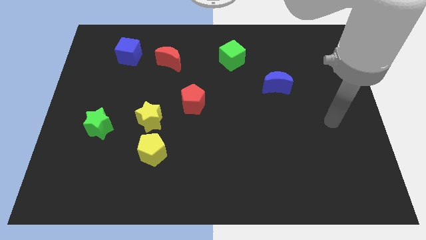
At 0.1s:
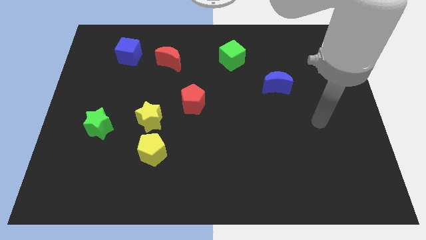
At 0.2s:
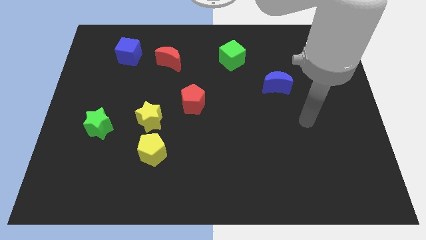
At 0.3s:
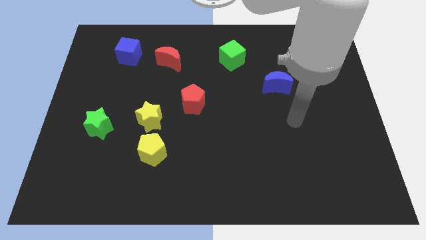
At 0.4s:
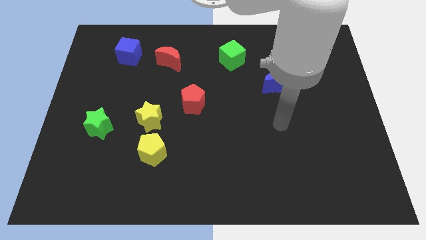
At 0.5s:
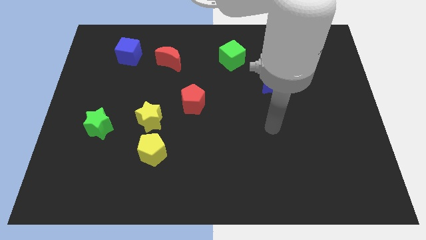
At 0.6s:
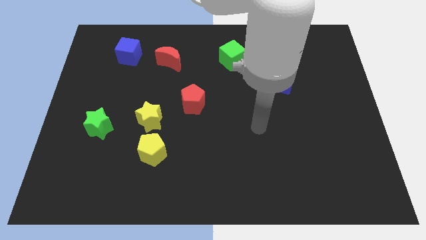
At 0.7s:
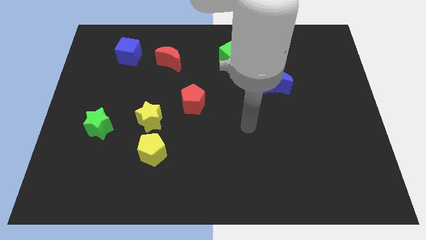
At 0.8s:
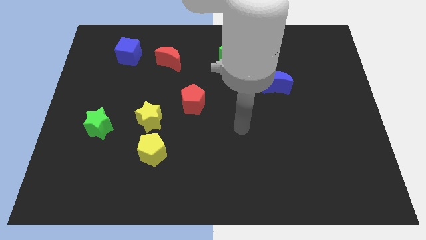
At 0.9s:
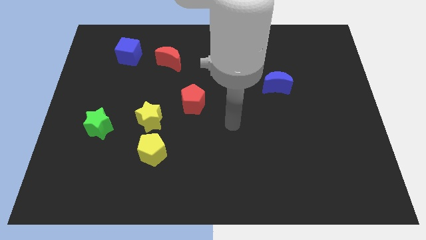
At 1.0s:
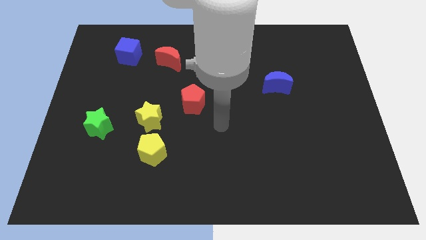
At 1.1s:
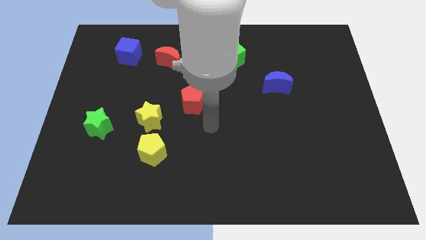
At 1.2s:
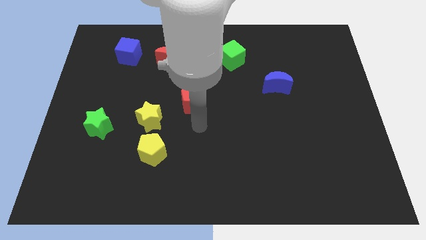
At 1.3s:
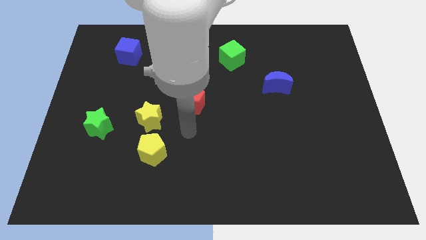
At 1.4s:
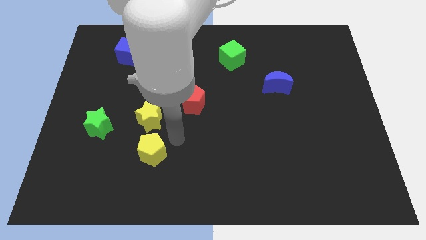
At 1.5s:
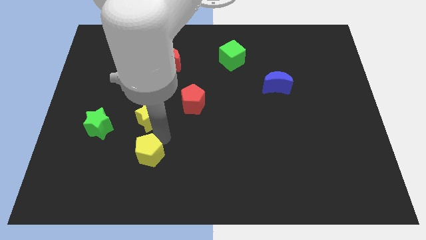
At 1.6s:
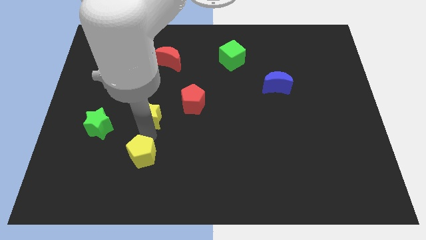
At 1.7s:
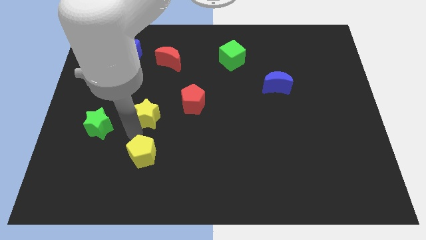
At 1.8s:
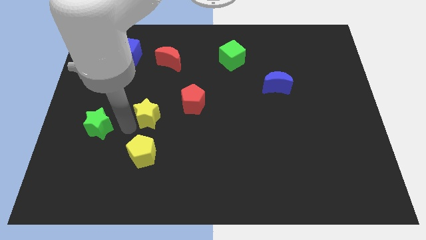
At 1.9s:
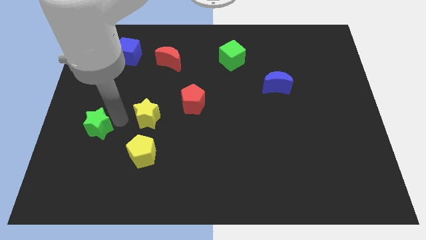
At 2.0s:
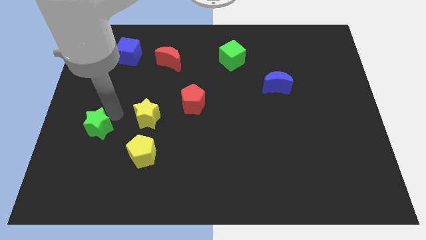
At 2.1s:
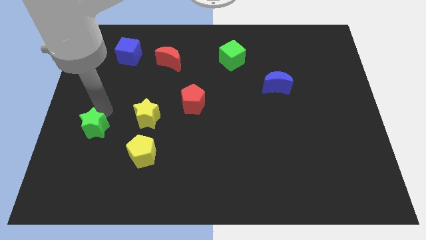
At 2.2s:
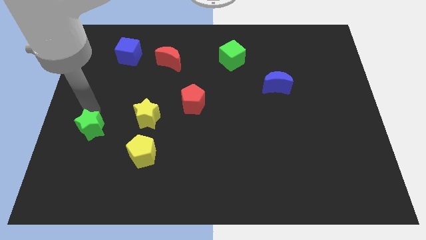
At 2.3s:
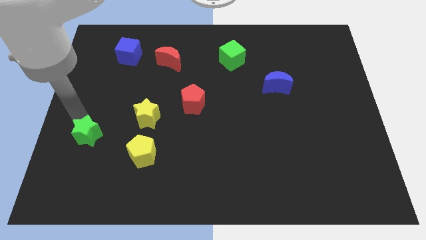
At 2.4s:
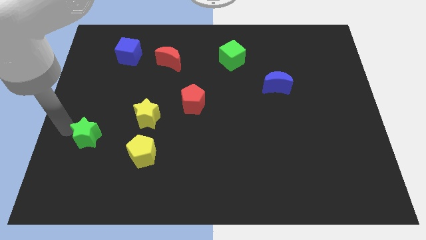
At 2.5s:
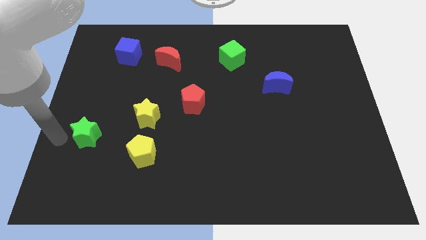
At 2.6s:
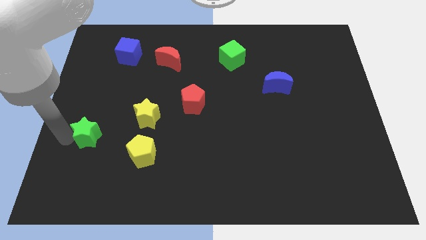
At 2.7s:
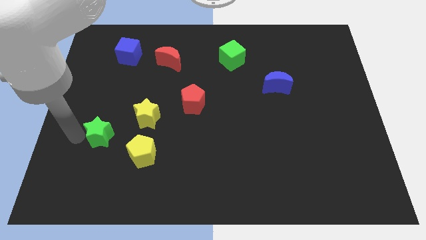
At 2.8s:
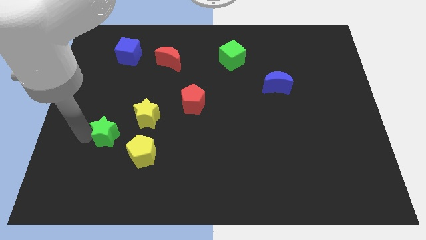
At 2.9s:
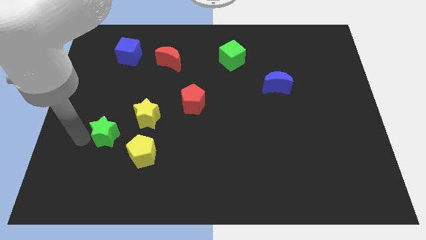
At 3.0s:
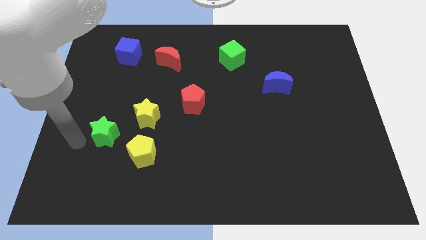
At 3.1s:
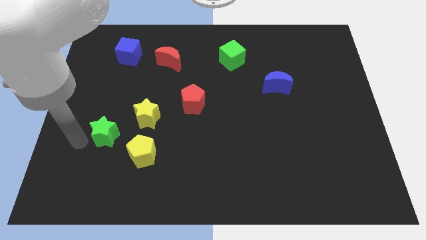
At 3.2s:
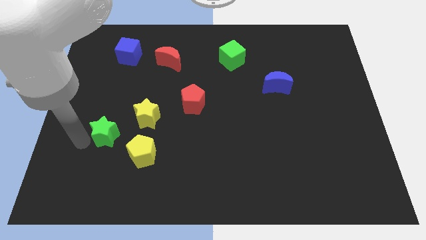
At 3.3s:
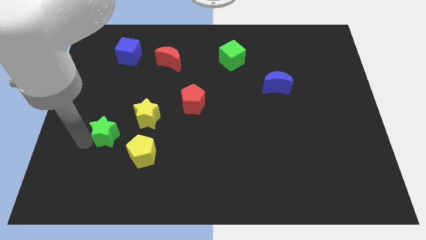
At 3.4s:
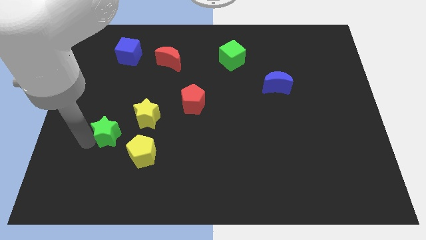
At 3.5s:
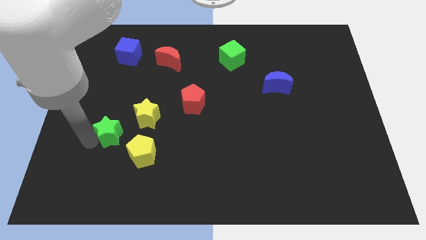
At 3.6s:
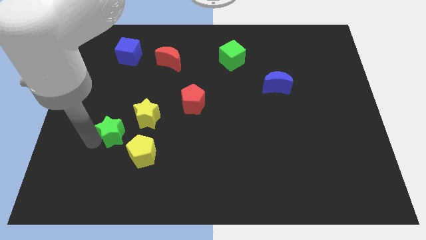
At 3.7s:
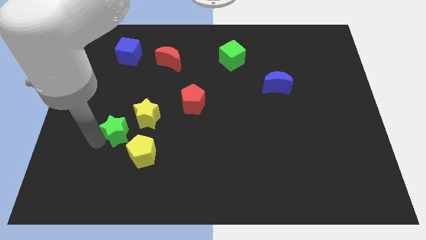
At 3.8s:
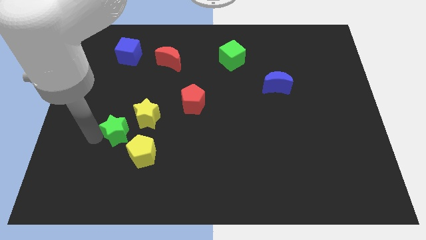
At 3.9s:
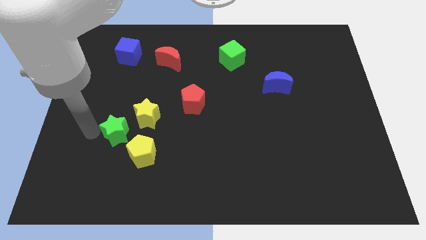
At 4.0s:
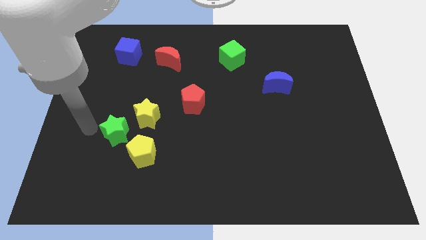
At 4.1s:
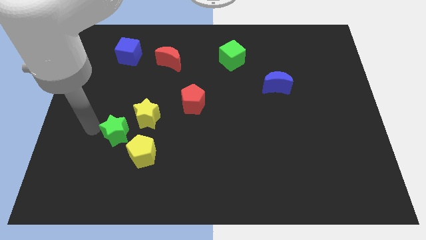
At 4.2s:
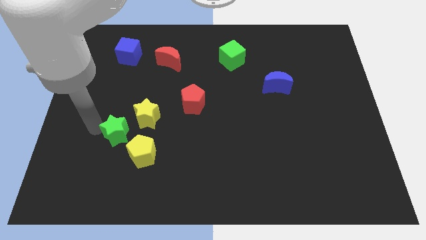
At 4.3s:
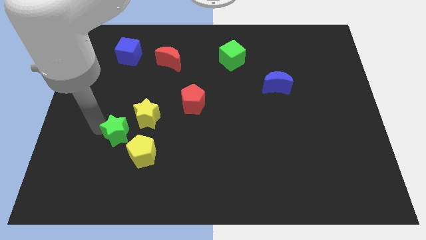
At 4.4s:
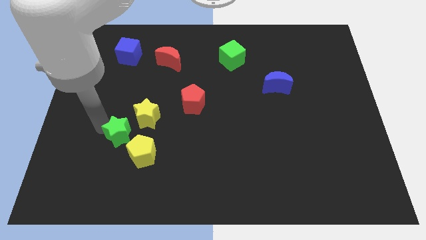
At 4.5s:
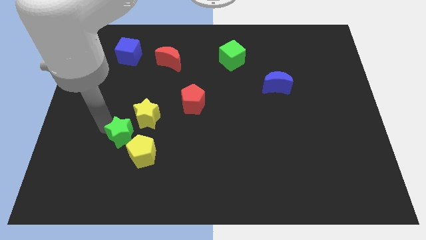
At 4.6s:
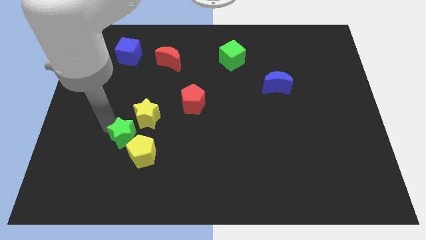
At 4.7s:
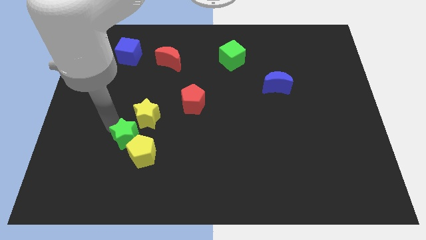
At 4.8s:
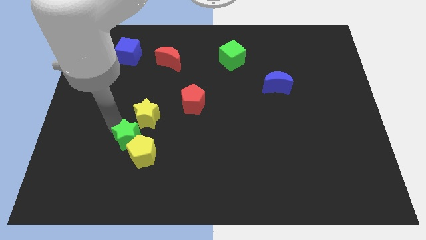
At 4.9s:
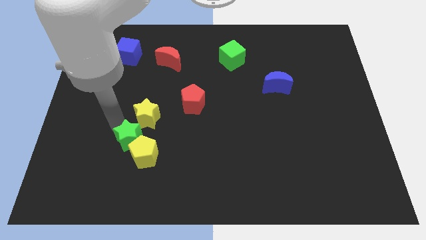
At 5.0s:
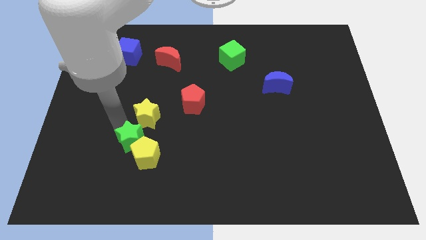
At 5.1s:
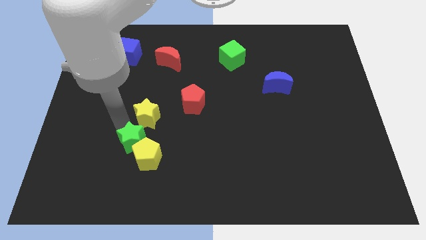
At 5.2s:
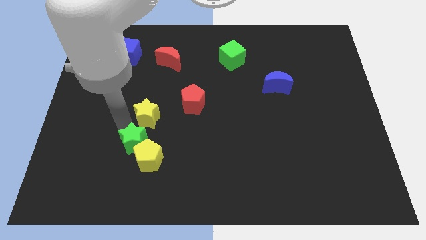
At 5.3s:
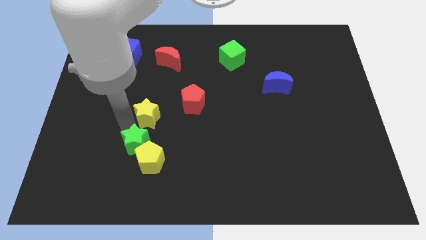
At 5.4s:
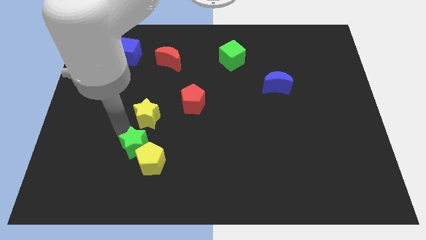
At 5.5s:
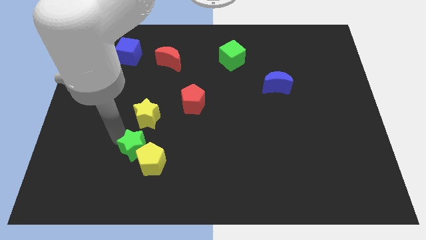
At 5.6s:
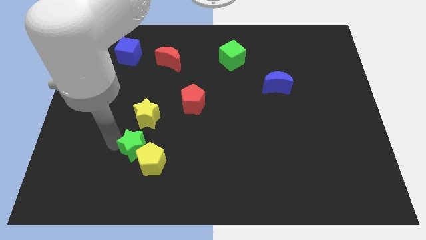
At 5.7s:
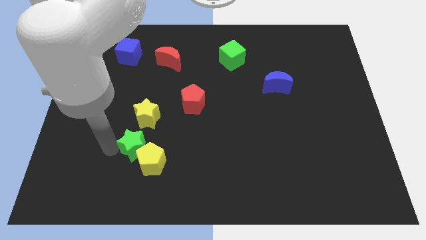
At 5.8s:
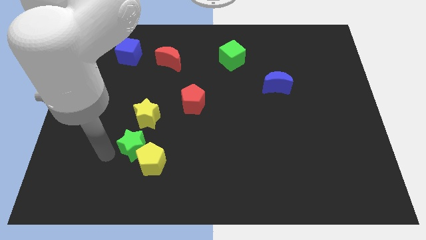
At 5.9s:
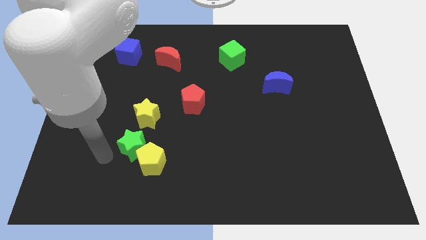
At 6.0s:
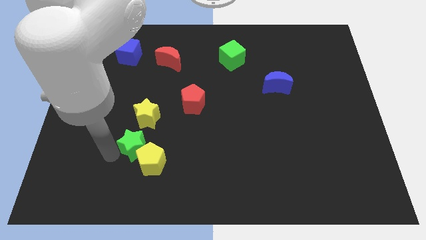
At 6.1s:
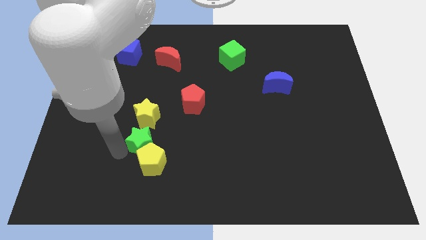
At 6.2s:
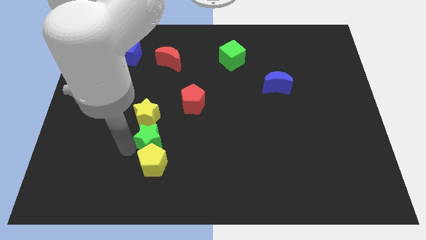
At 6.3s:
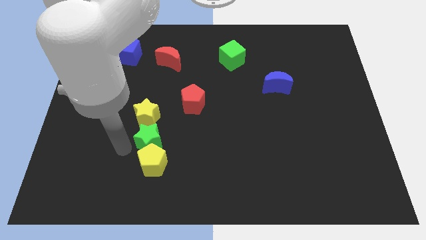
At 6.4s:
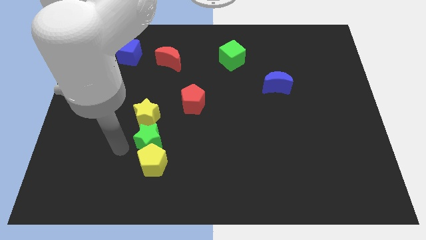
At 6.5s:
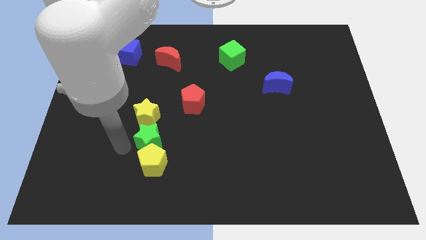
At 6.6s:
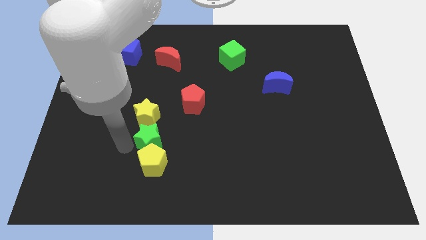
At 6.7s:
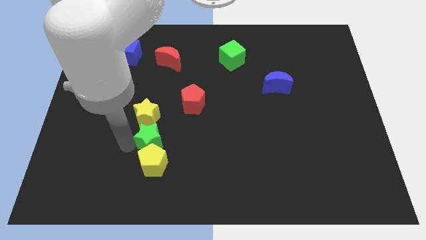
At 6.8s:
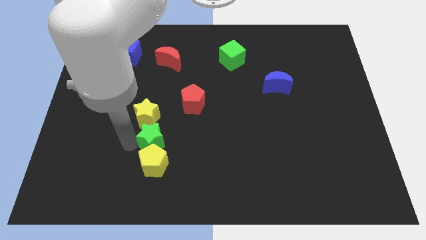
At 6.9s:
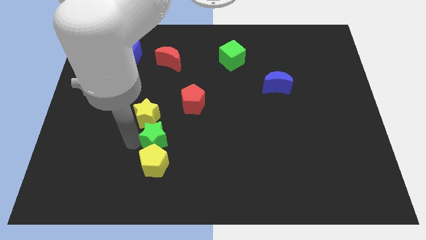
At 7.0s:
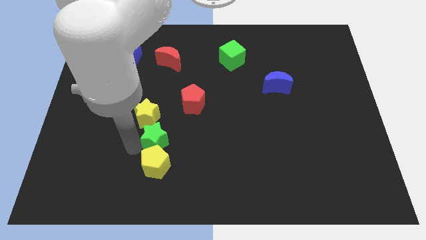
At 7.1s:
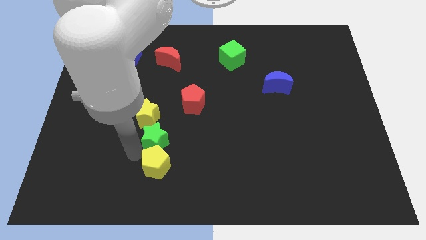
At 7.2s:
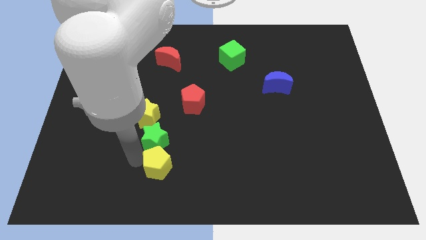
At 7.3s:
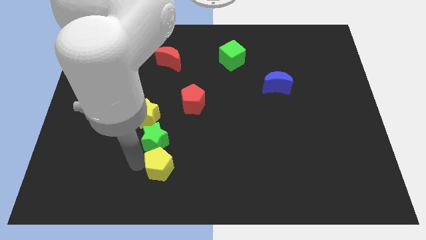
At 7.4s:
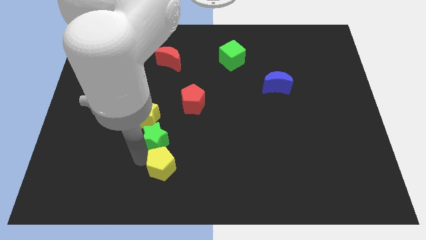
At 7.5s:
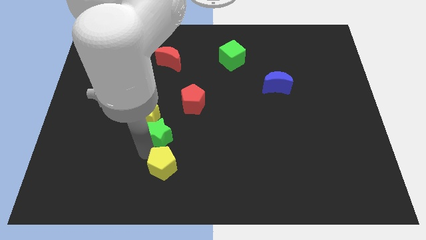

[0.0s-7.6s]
push the green star to the bottom left of the red pentagon
